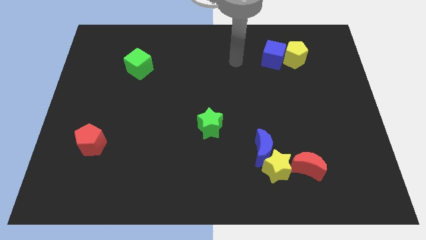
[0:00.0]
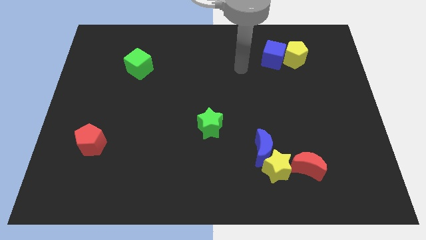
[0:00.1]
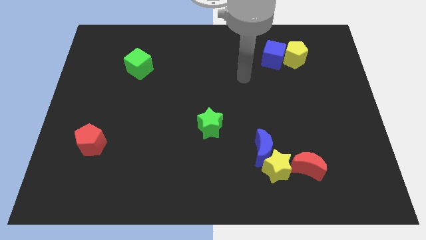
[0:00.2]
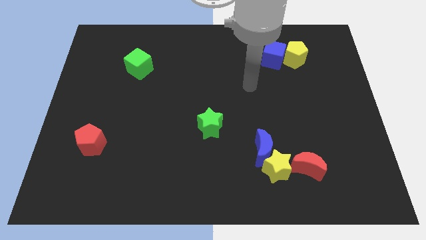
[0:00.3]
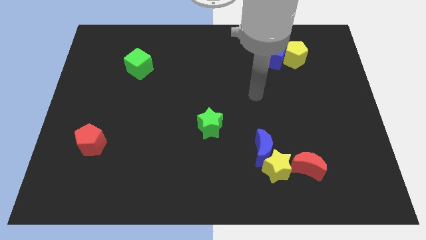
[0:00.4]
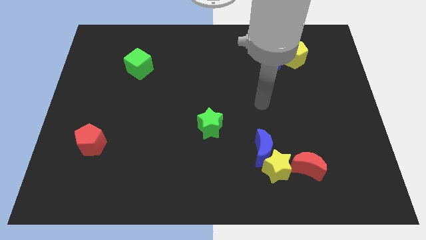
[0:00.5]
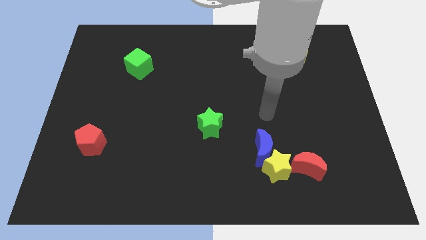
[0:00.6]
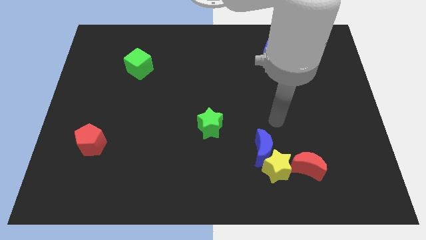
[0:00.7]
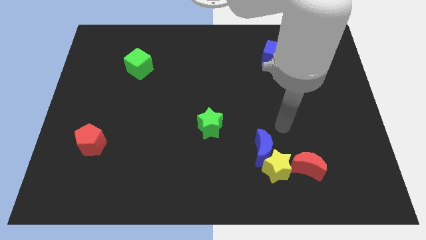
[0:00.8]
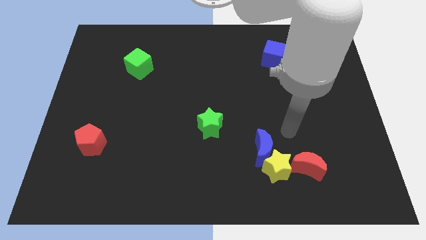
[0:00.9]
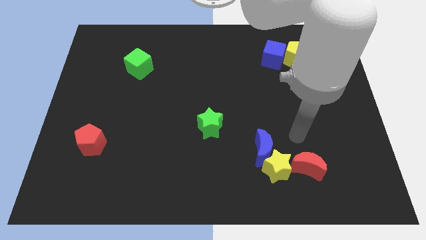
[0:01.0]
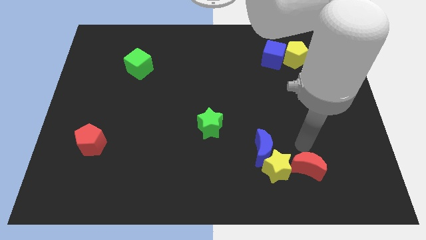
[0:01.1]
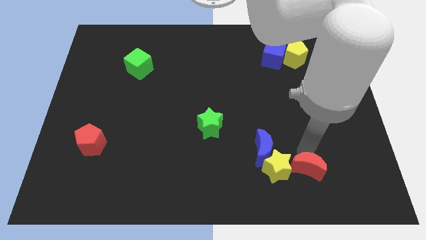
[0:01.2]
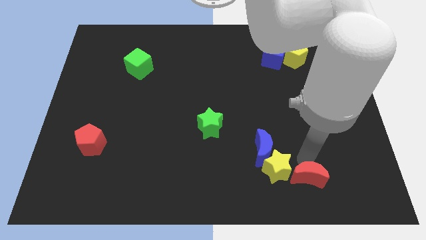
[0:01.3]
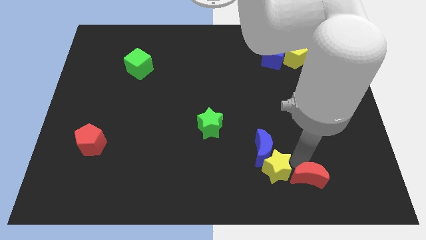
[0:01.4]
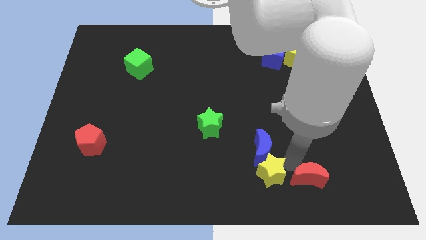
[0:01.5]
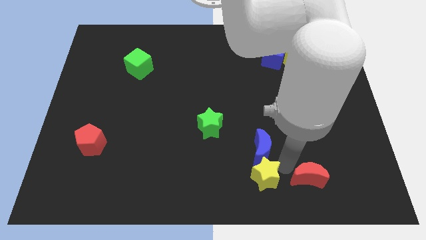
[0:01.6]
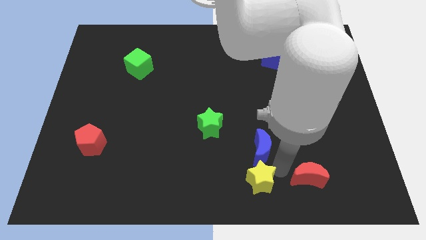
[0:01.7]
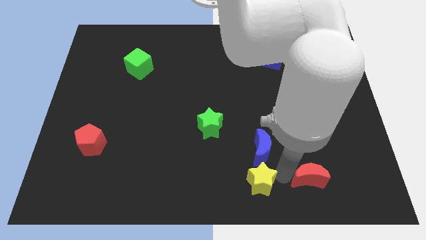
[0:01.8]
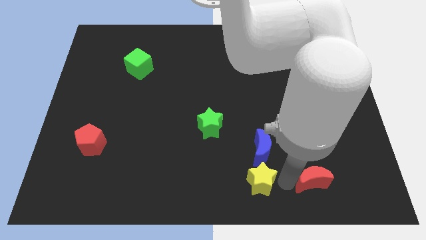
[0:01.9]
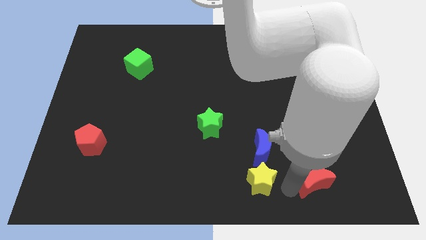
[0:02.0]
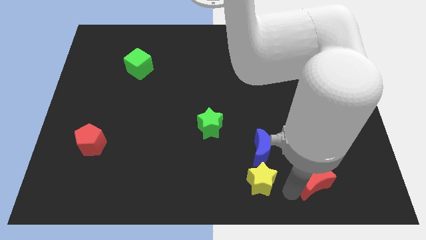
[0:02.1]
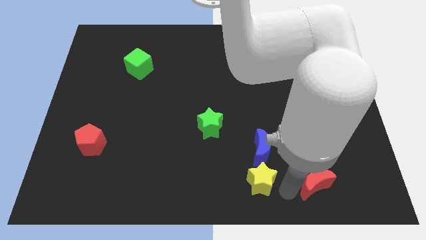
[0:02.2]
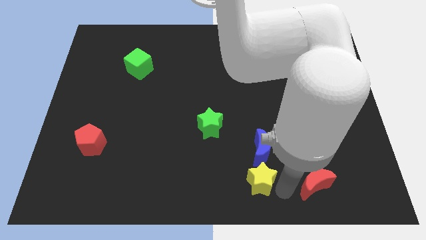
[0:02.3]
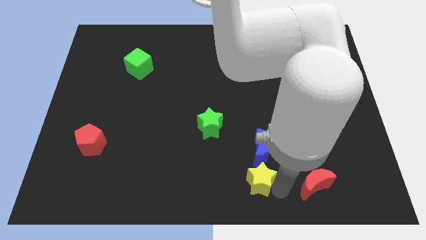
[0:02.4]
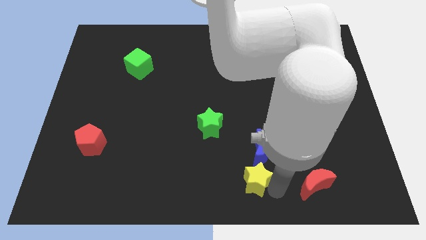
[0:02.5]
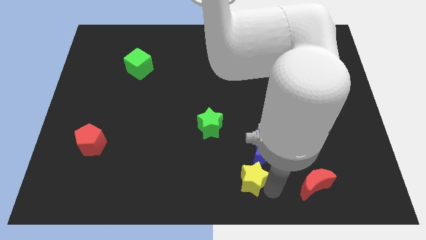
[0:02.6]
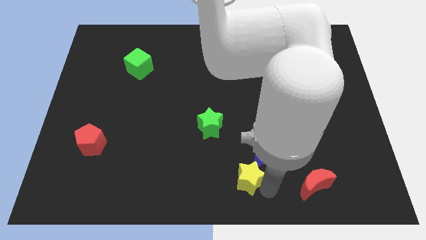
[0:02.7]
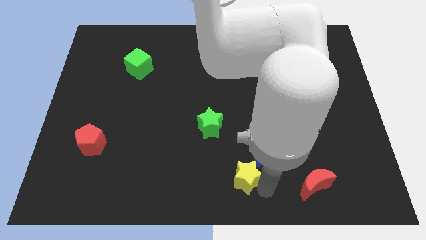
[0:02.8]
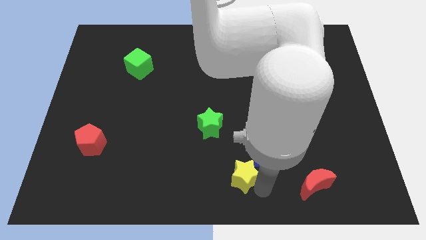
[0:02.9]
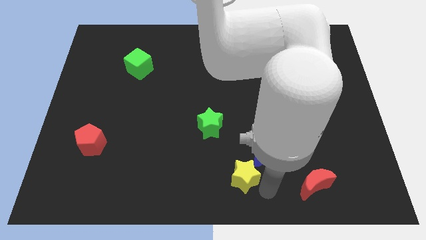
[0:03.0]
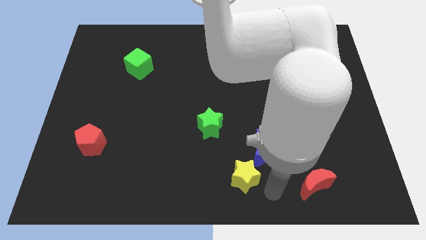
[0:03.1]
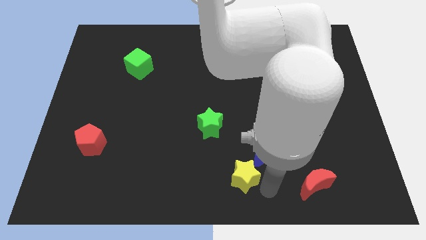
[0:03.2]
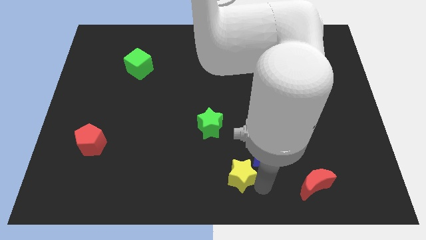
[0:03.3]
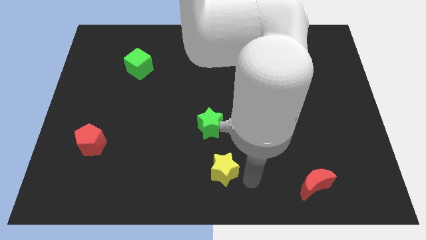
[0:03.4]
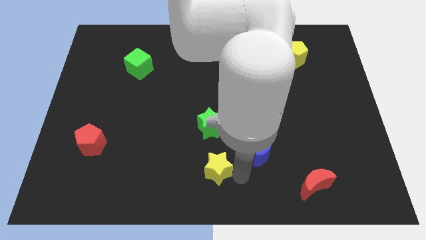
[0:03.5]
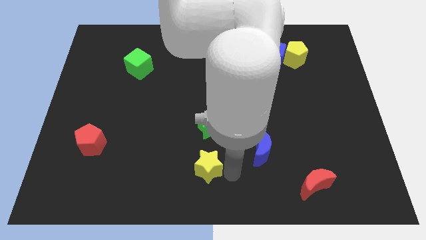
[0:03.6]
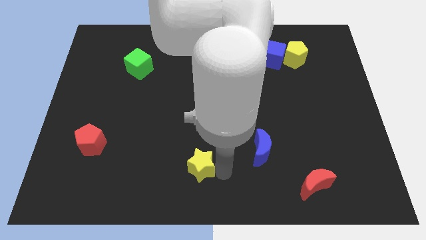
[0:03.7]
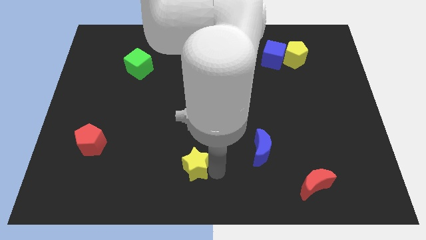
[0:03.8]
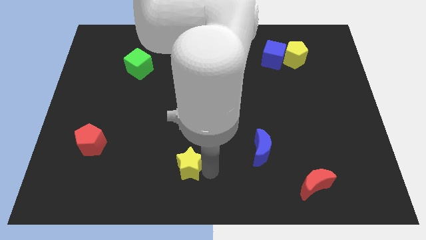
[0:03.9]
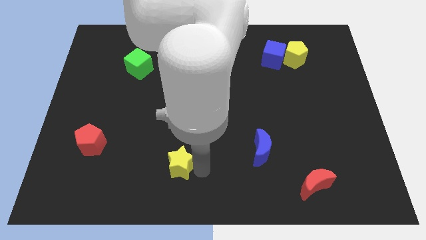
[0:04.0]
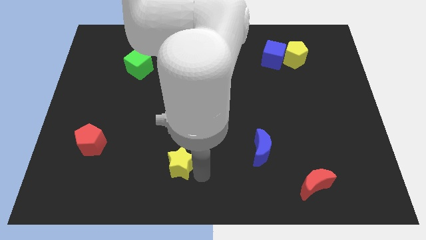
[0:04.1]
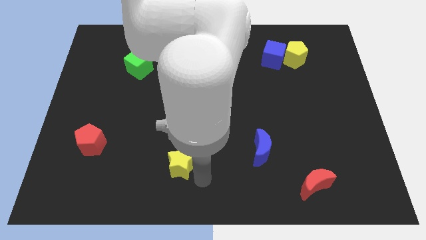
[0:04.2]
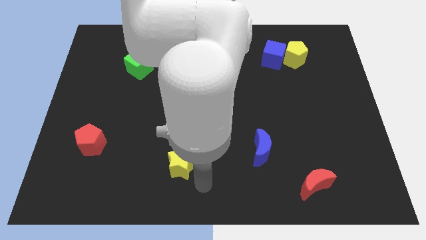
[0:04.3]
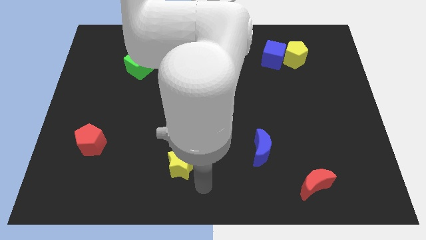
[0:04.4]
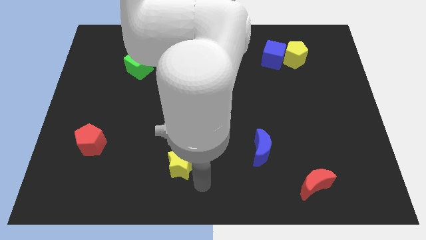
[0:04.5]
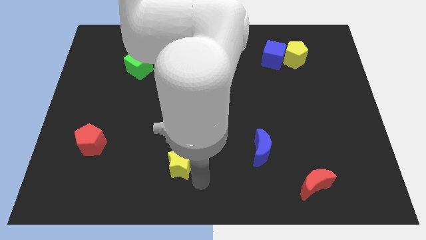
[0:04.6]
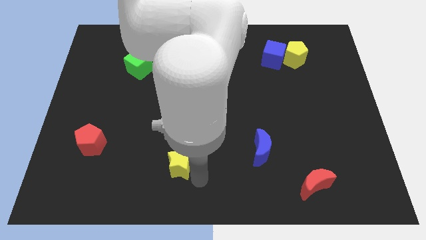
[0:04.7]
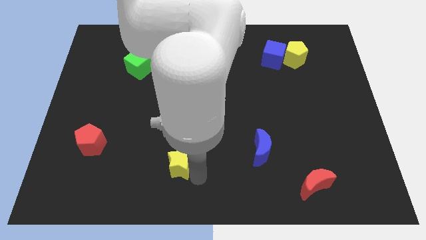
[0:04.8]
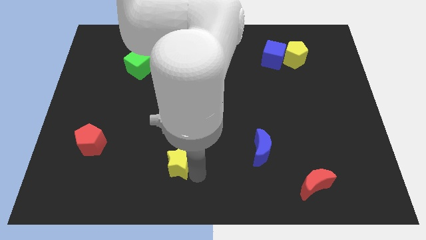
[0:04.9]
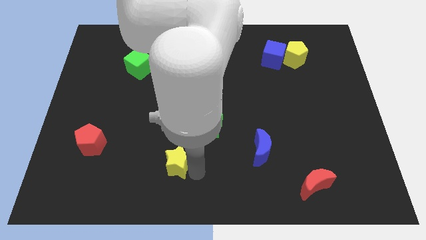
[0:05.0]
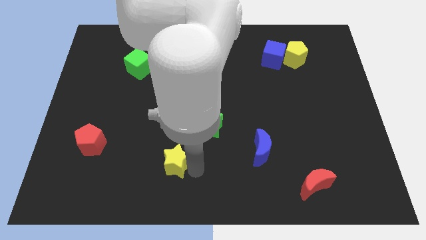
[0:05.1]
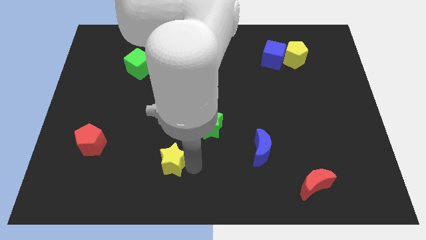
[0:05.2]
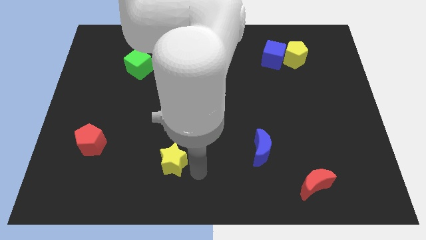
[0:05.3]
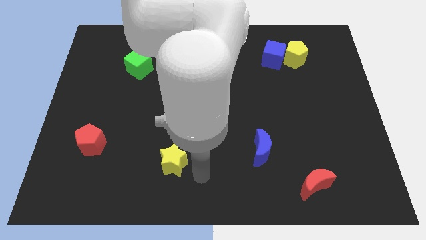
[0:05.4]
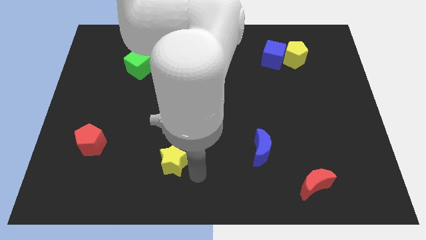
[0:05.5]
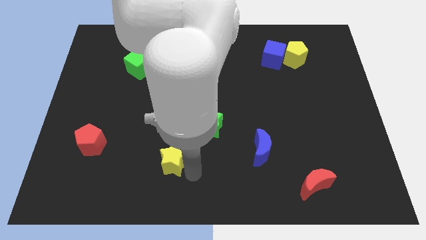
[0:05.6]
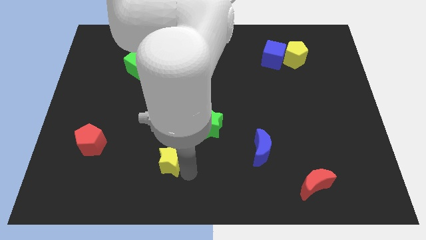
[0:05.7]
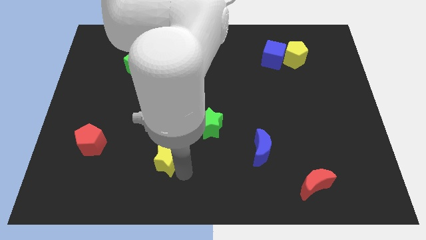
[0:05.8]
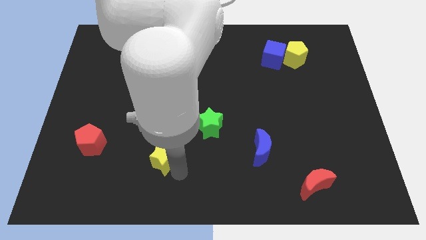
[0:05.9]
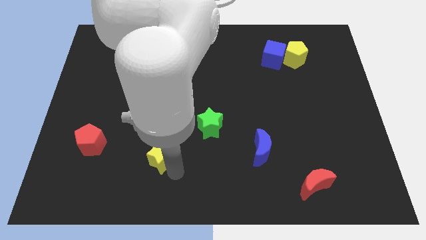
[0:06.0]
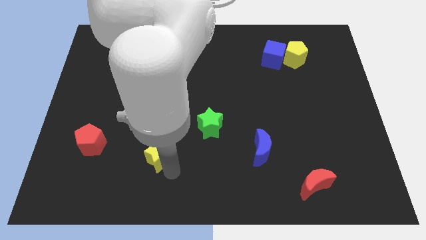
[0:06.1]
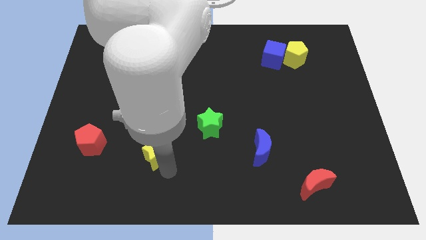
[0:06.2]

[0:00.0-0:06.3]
slide the yellow star right of the red pentagon

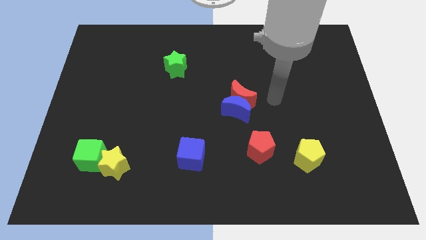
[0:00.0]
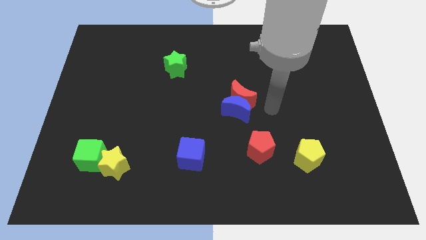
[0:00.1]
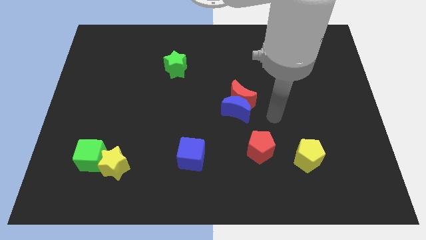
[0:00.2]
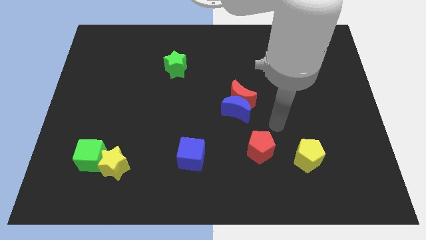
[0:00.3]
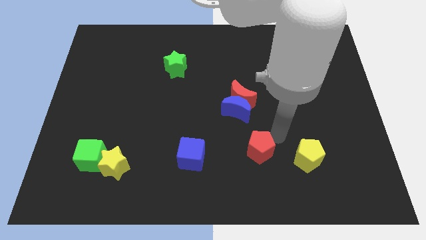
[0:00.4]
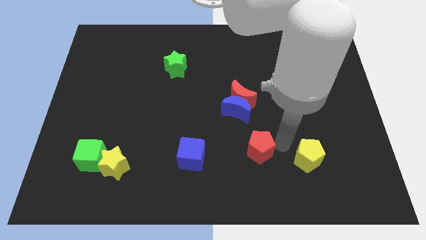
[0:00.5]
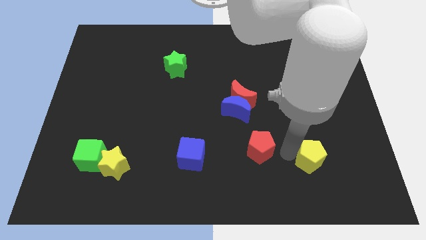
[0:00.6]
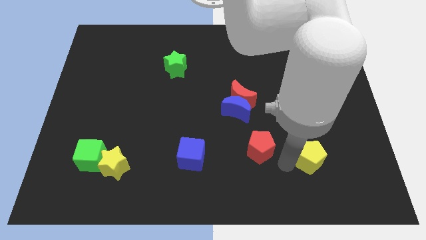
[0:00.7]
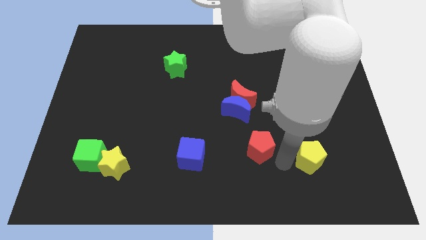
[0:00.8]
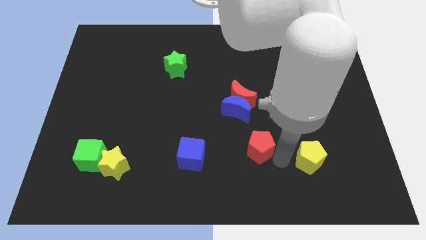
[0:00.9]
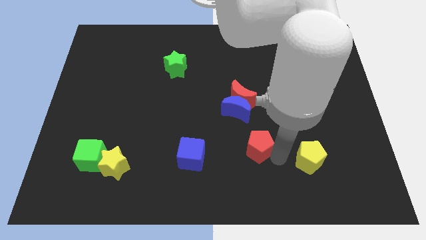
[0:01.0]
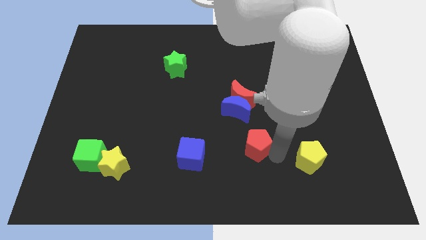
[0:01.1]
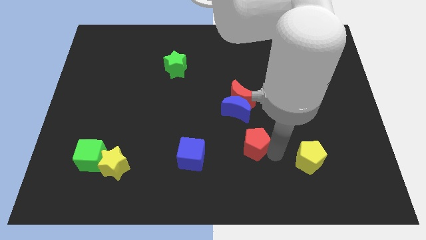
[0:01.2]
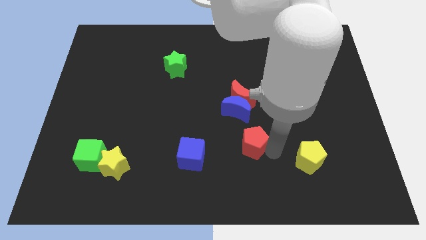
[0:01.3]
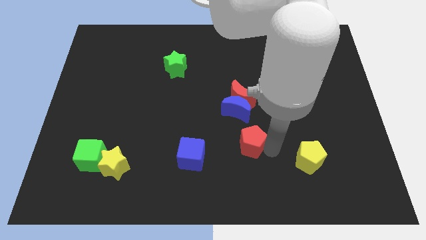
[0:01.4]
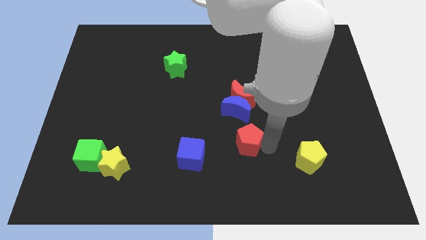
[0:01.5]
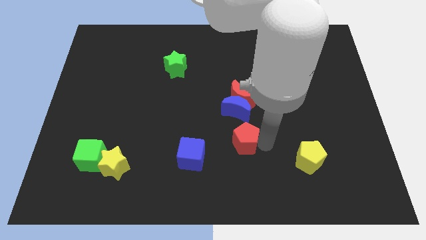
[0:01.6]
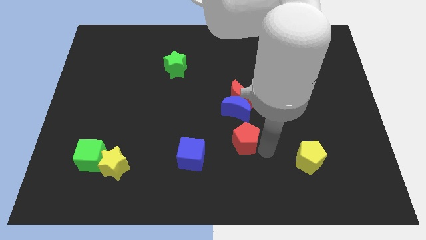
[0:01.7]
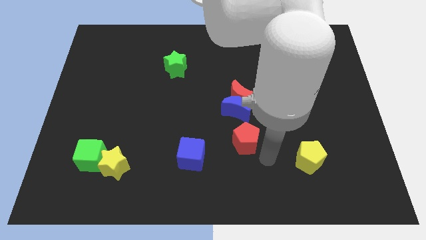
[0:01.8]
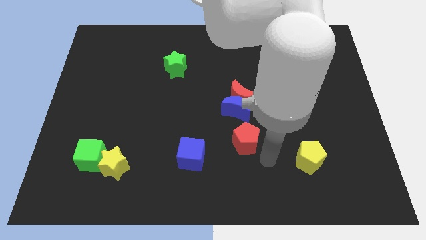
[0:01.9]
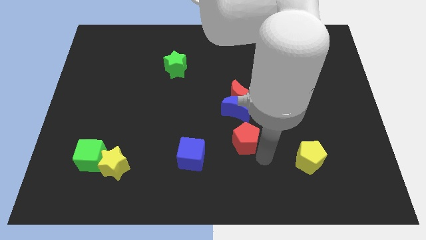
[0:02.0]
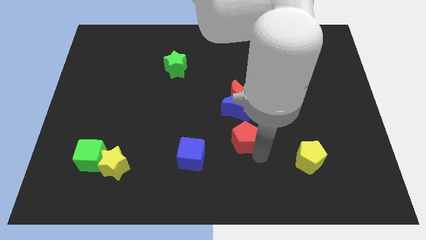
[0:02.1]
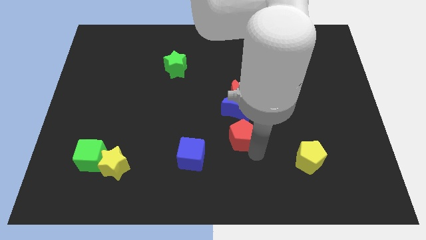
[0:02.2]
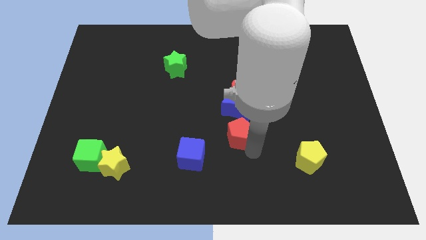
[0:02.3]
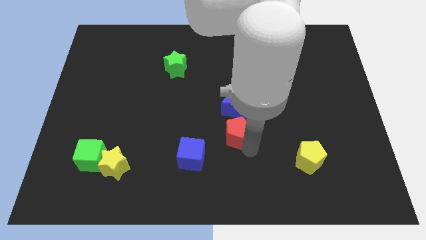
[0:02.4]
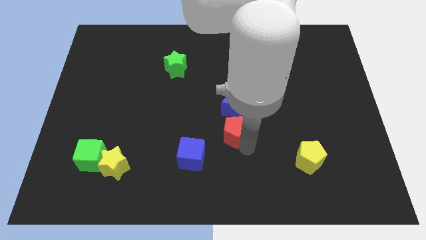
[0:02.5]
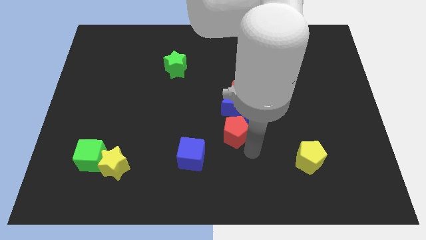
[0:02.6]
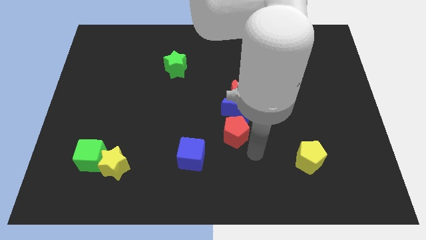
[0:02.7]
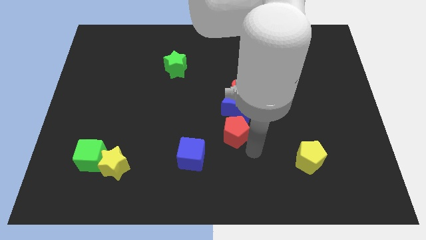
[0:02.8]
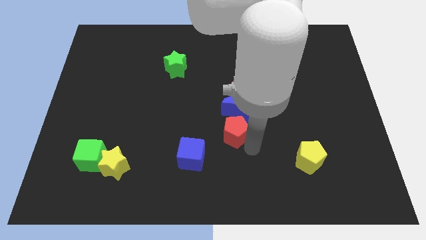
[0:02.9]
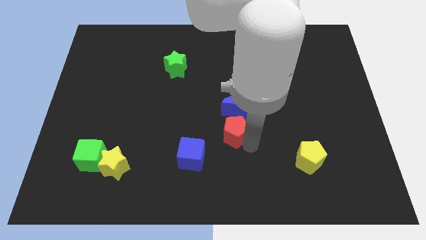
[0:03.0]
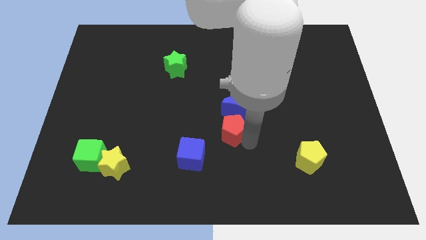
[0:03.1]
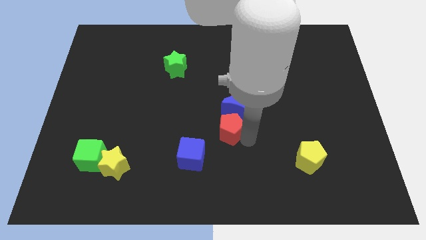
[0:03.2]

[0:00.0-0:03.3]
put the red pentagon to the bottom left side of the red moon
